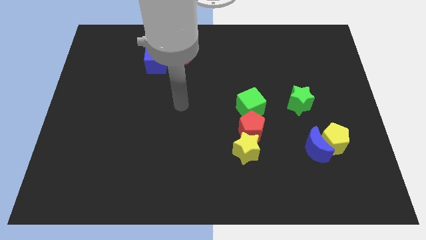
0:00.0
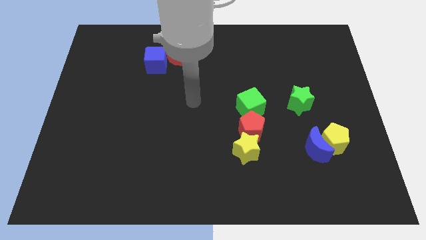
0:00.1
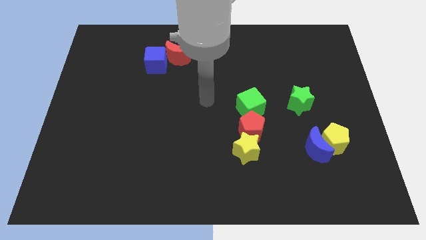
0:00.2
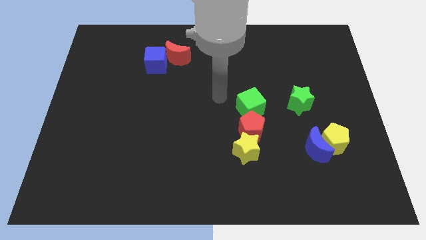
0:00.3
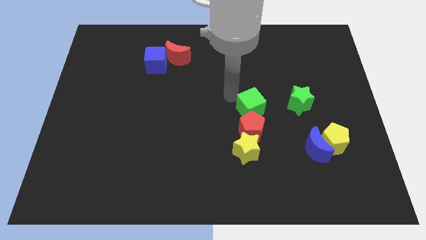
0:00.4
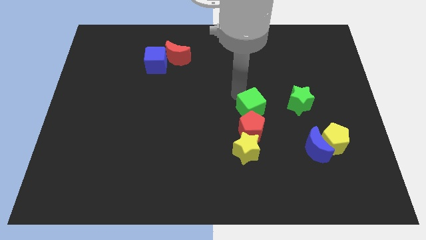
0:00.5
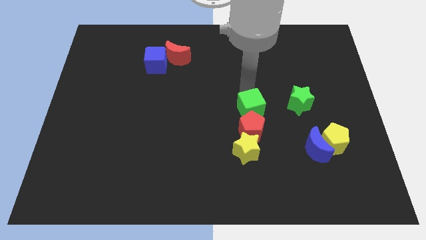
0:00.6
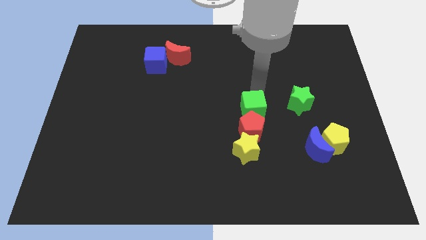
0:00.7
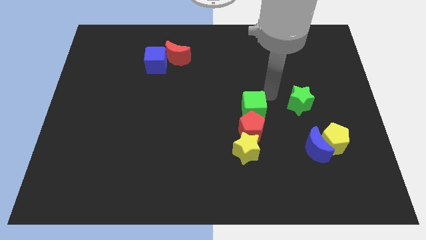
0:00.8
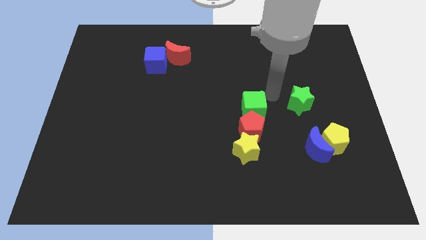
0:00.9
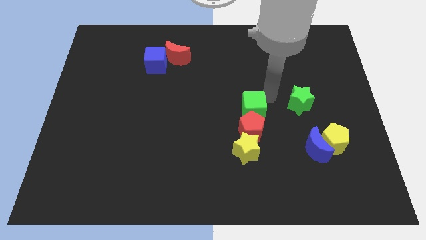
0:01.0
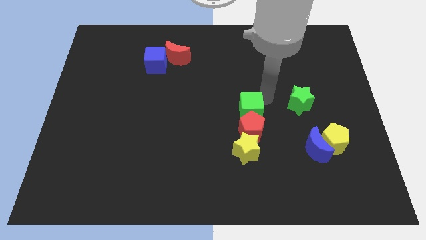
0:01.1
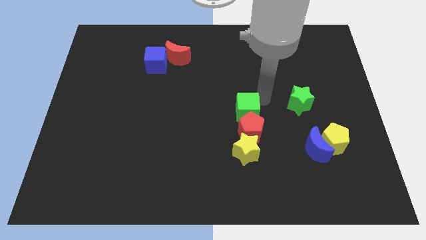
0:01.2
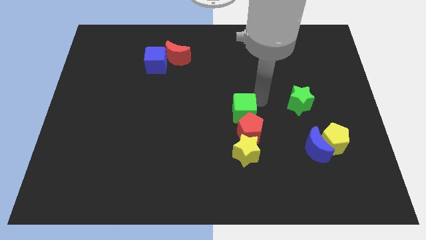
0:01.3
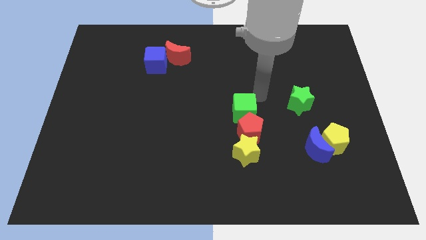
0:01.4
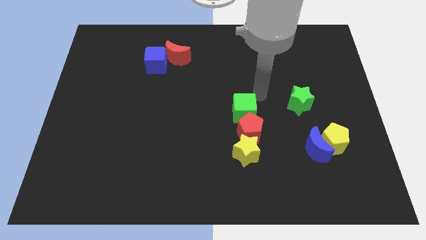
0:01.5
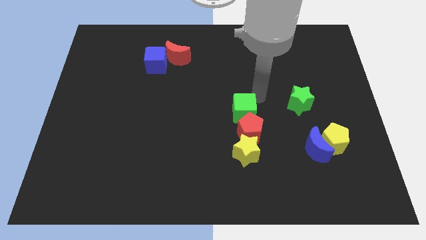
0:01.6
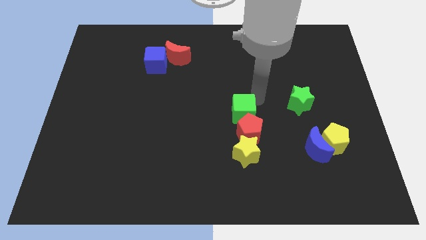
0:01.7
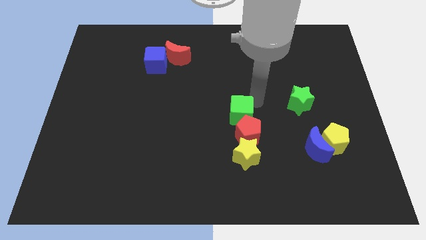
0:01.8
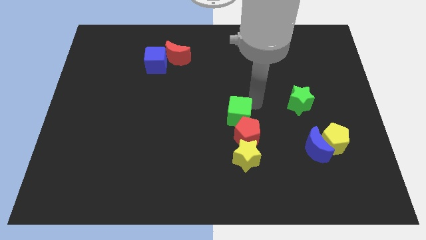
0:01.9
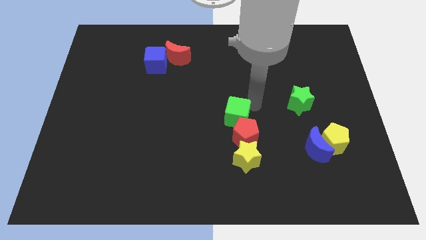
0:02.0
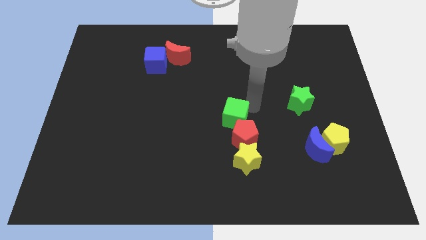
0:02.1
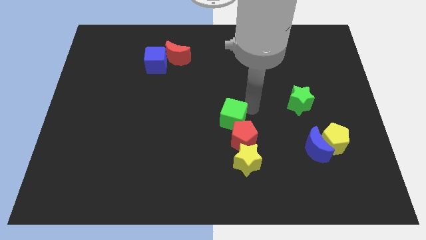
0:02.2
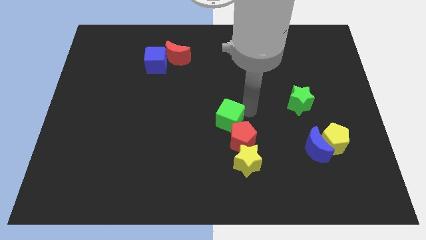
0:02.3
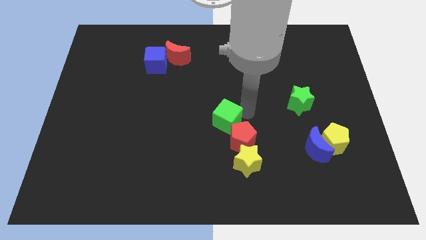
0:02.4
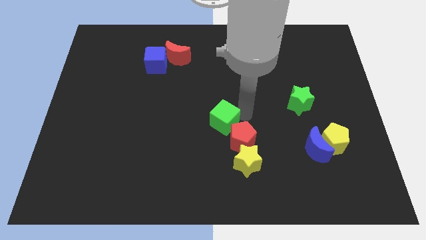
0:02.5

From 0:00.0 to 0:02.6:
push the green cube down and to the left a little bit

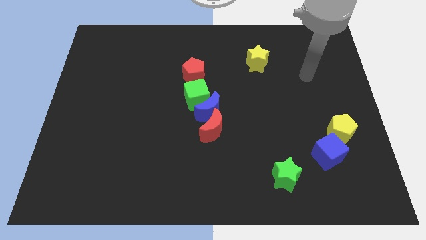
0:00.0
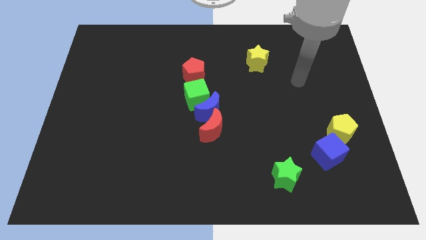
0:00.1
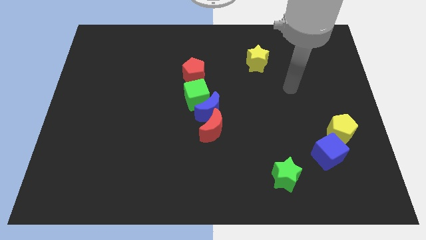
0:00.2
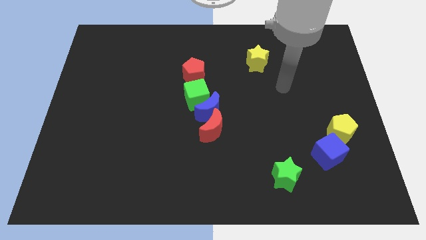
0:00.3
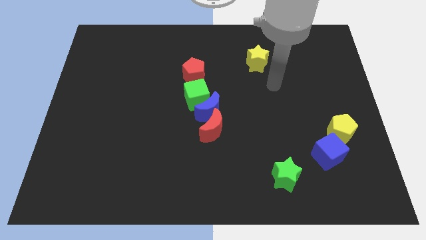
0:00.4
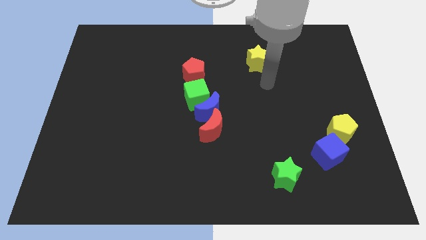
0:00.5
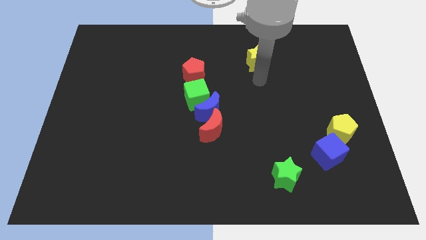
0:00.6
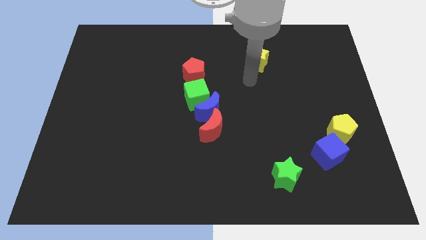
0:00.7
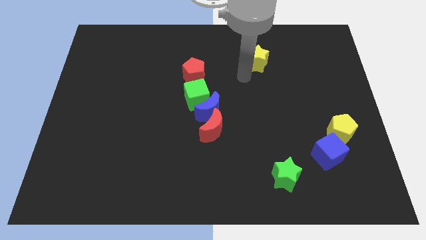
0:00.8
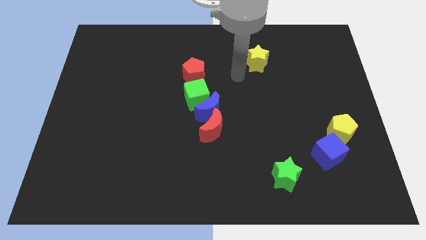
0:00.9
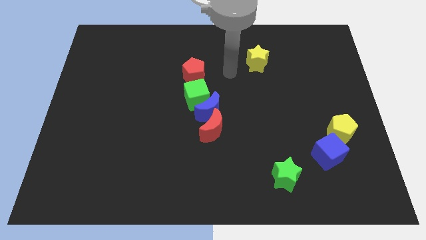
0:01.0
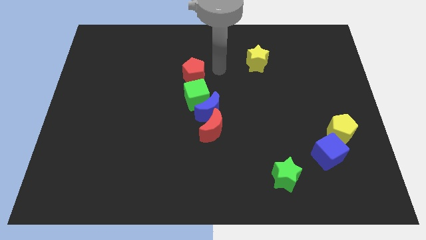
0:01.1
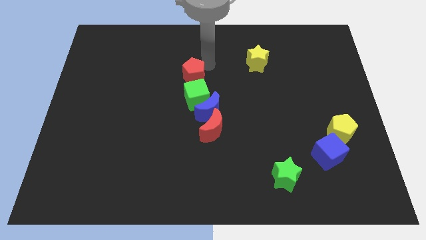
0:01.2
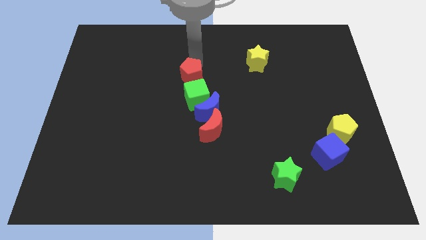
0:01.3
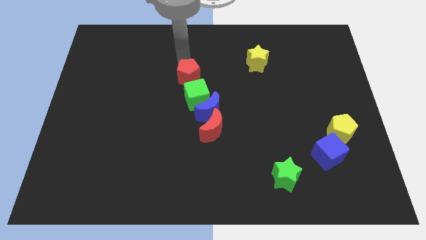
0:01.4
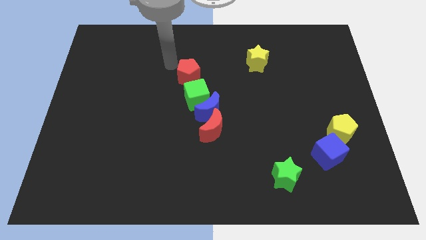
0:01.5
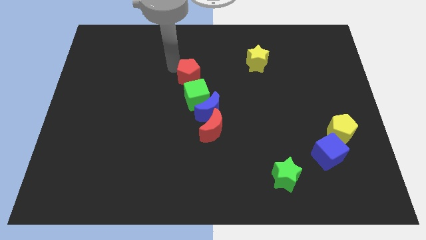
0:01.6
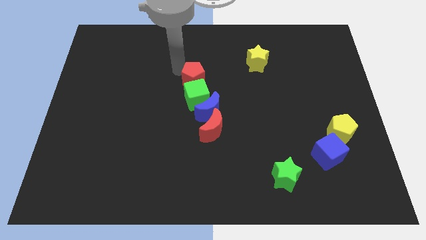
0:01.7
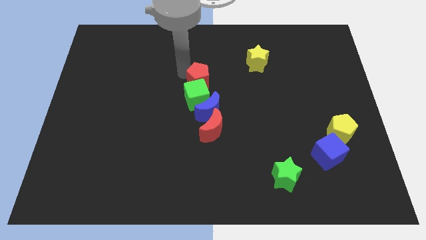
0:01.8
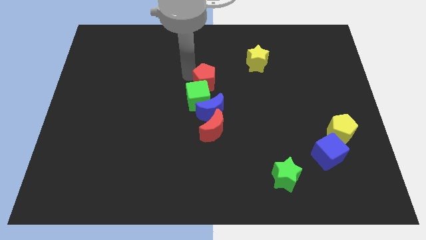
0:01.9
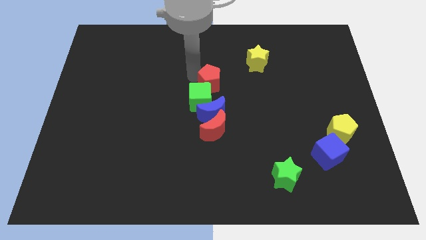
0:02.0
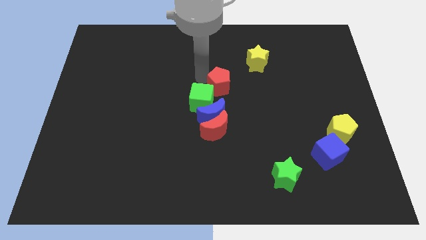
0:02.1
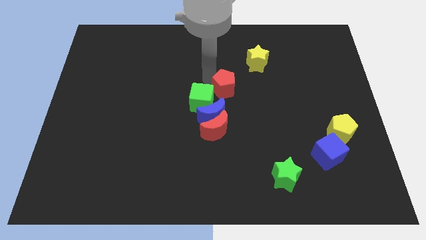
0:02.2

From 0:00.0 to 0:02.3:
move the red pentagon down and to the right diagonally a bit

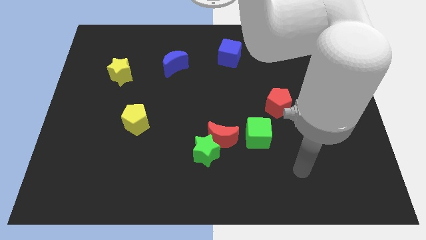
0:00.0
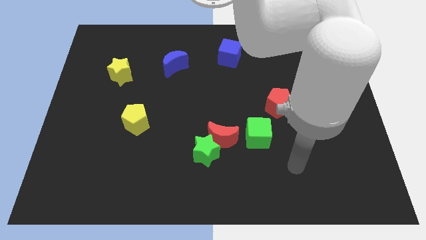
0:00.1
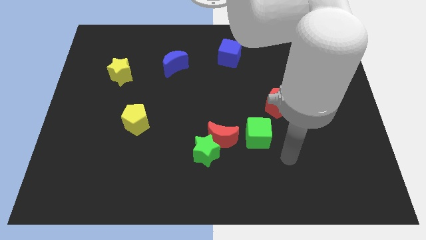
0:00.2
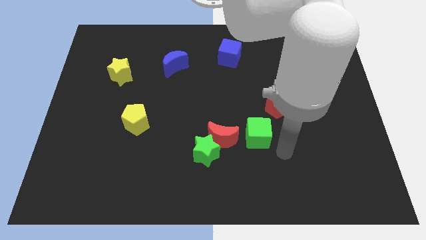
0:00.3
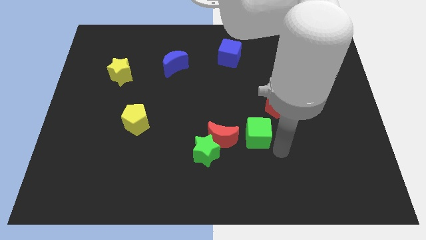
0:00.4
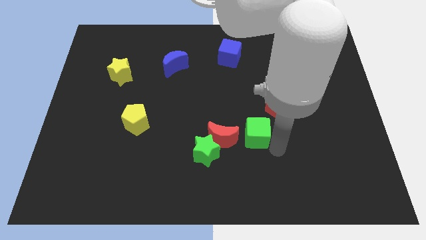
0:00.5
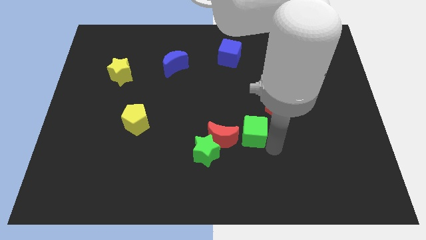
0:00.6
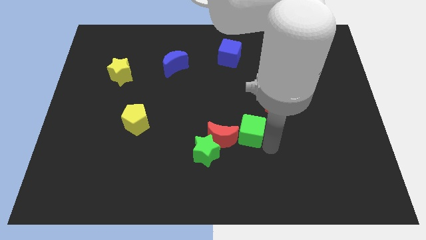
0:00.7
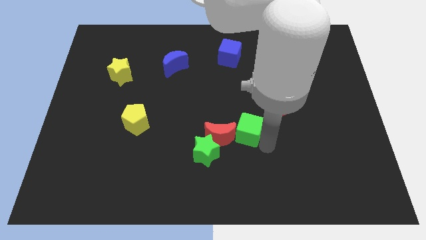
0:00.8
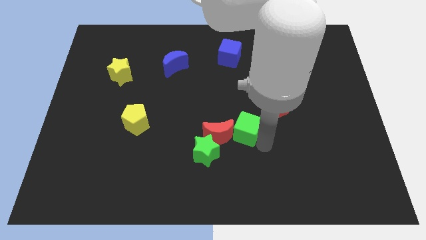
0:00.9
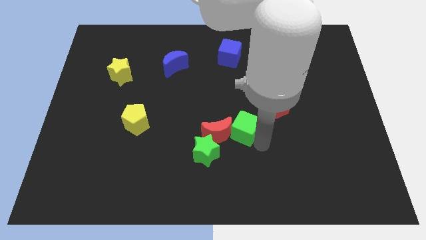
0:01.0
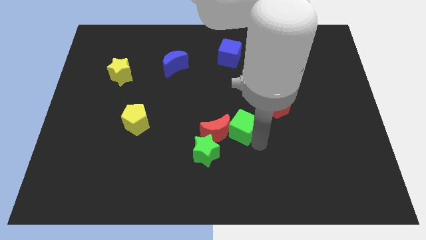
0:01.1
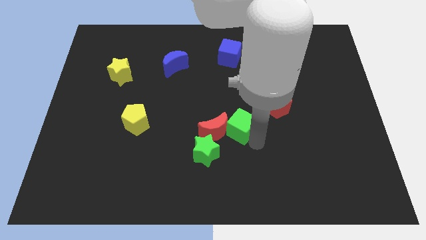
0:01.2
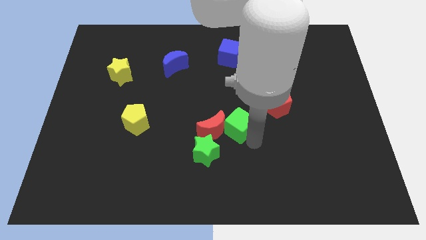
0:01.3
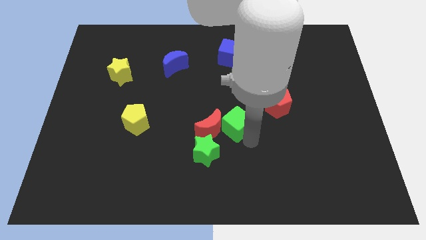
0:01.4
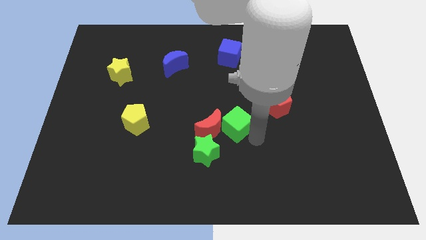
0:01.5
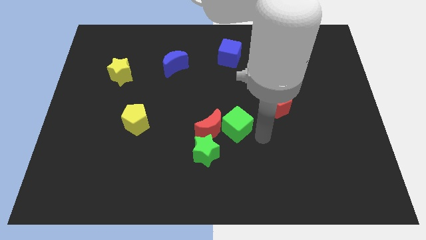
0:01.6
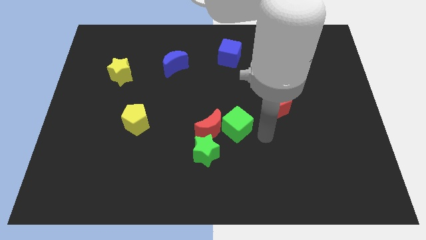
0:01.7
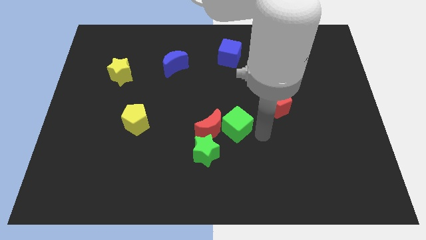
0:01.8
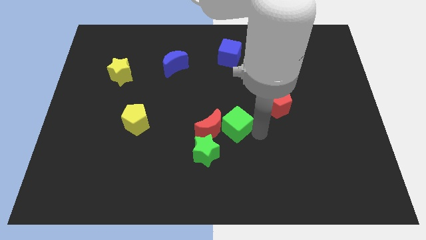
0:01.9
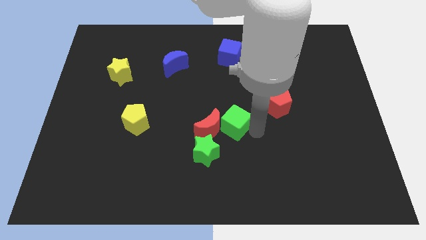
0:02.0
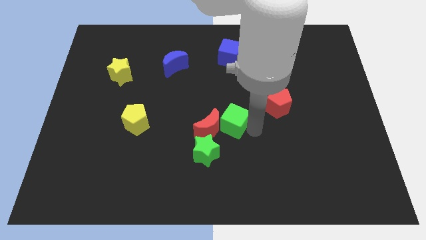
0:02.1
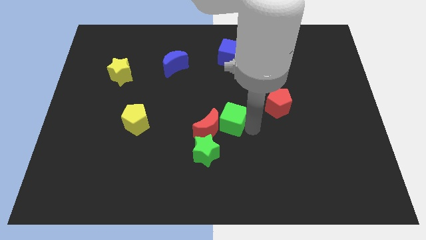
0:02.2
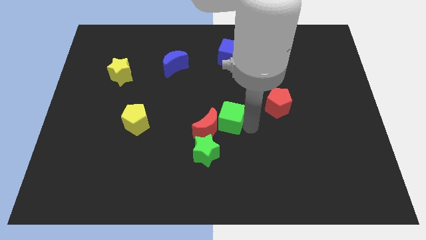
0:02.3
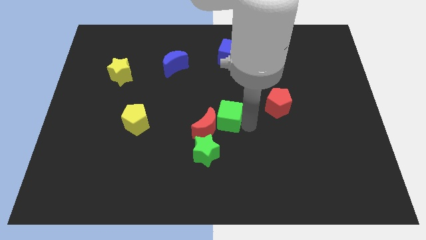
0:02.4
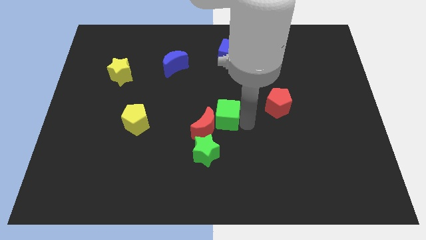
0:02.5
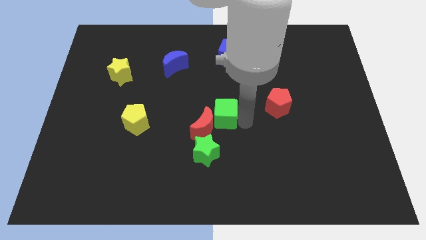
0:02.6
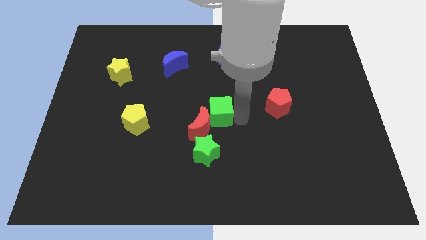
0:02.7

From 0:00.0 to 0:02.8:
slightly push the green cube left

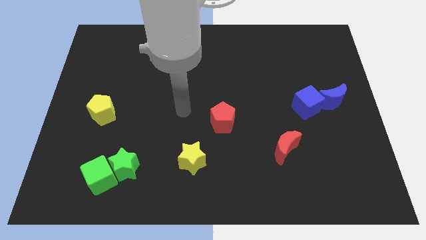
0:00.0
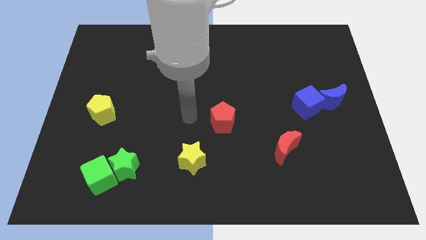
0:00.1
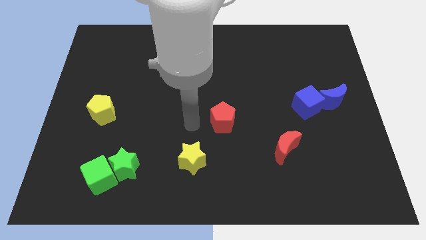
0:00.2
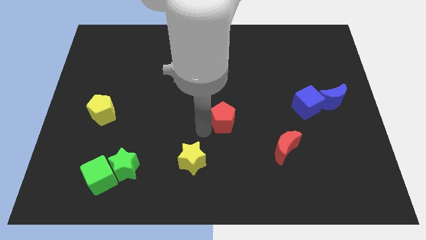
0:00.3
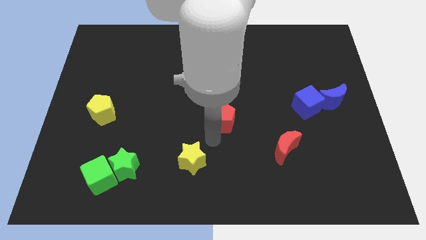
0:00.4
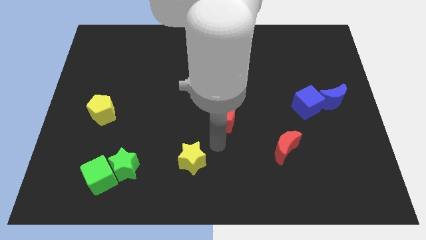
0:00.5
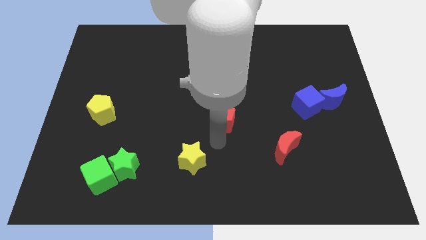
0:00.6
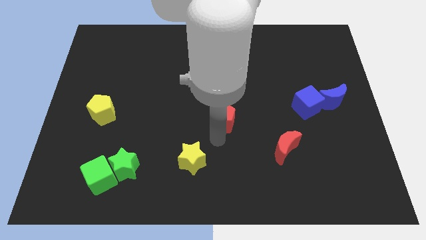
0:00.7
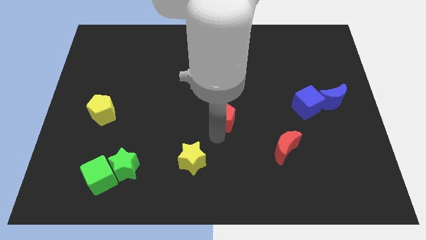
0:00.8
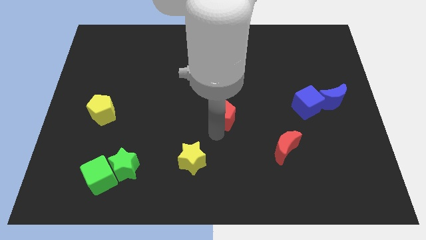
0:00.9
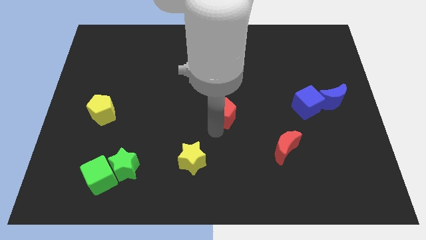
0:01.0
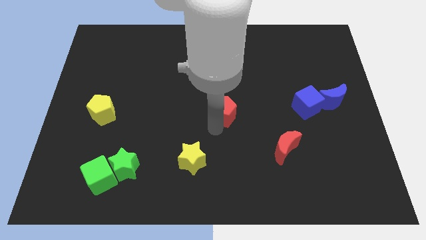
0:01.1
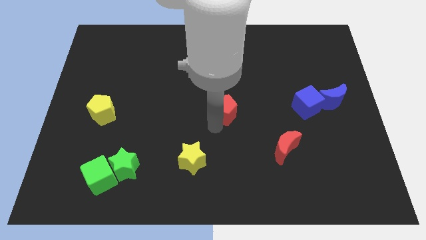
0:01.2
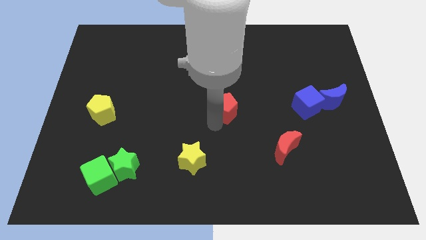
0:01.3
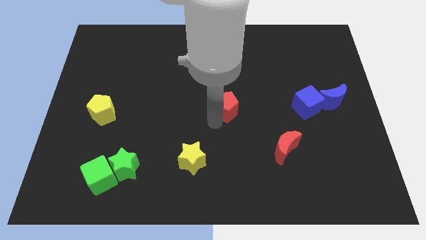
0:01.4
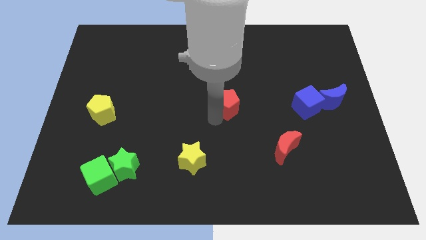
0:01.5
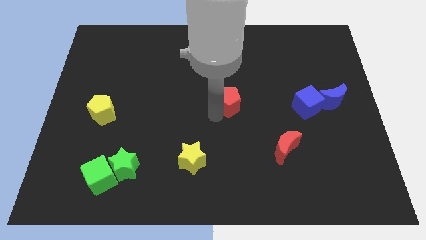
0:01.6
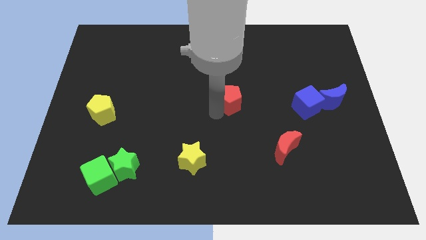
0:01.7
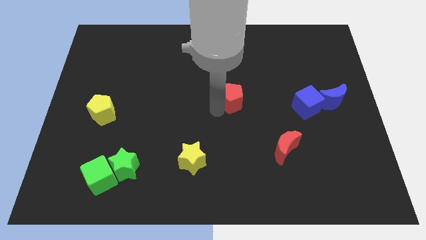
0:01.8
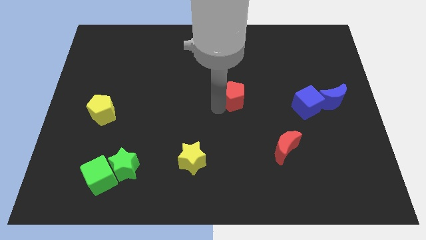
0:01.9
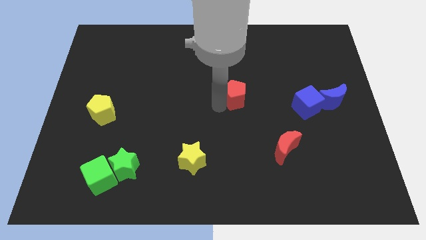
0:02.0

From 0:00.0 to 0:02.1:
move the red pentagon upwards and then to the right slightly
